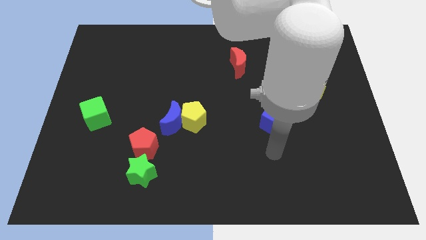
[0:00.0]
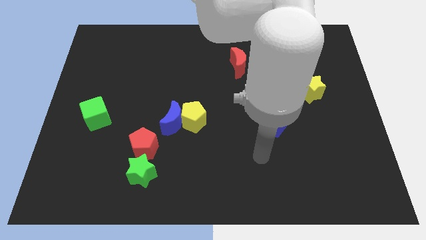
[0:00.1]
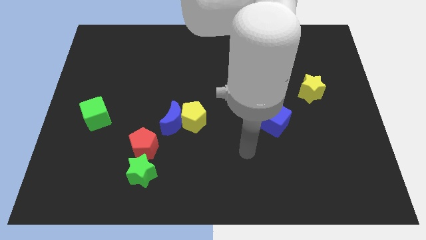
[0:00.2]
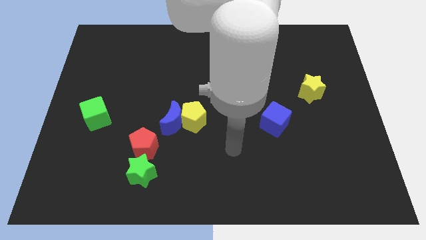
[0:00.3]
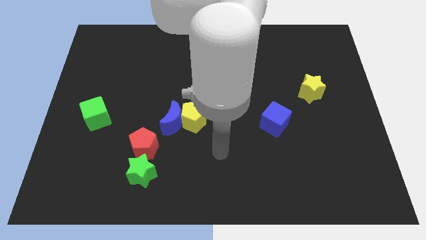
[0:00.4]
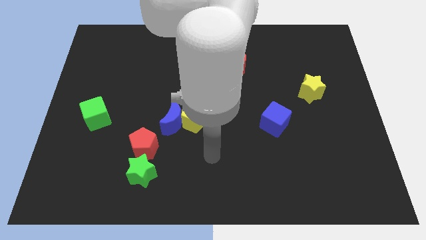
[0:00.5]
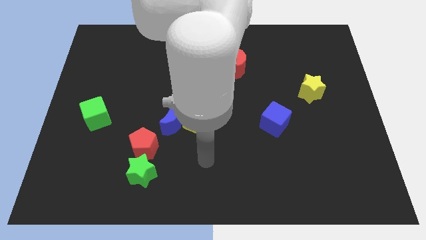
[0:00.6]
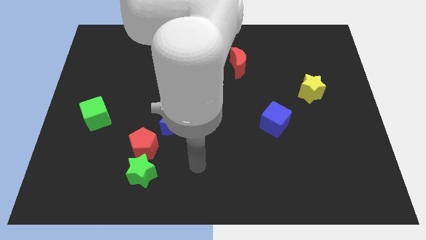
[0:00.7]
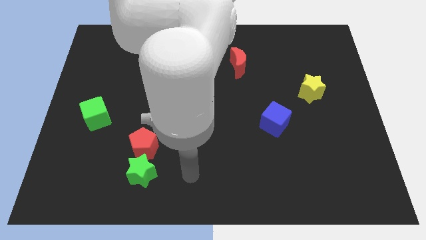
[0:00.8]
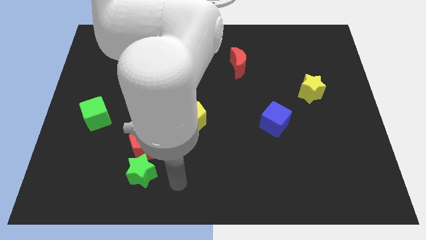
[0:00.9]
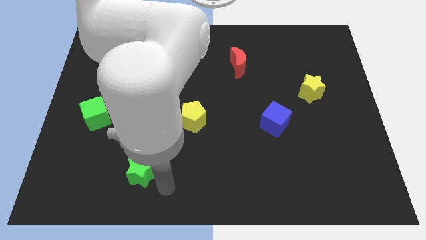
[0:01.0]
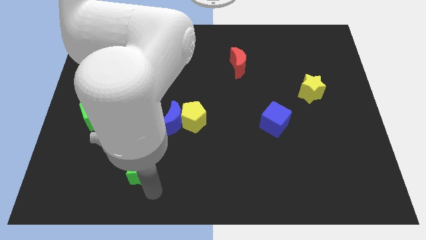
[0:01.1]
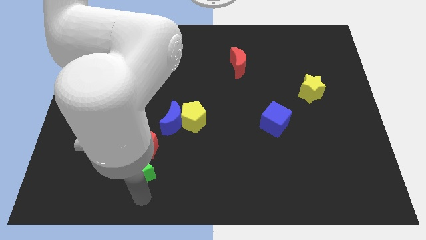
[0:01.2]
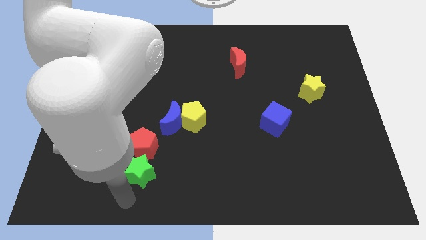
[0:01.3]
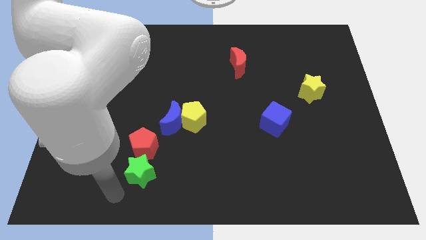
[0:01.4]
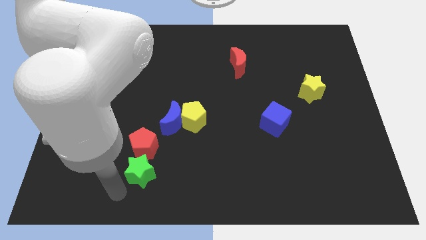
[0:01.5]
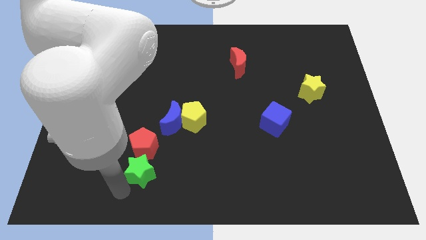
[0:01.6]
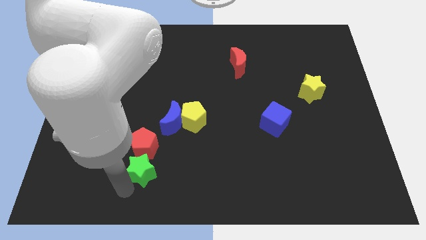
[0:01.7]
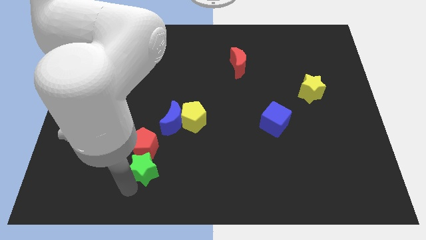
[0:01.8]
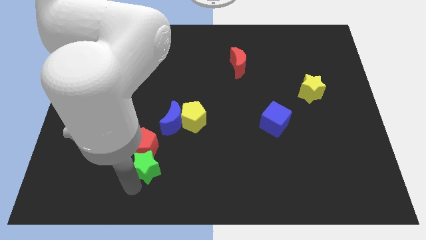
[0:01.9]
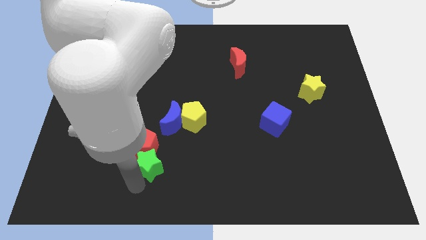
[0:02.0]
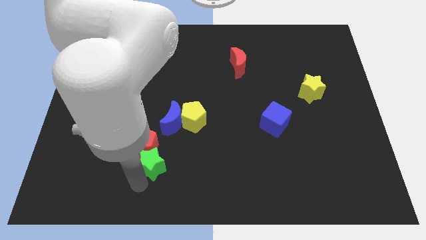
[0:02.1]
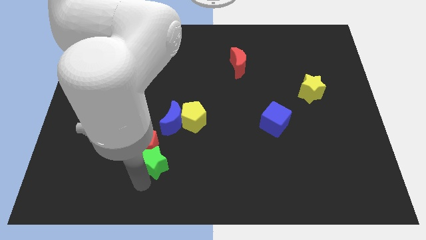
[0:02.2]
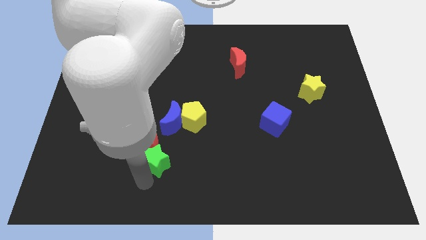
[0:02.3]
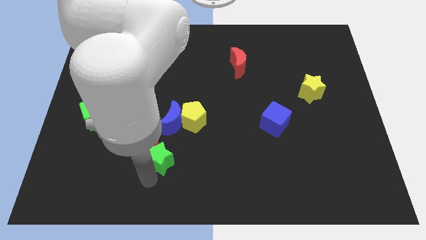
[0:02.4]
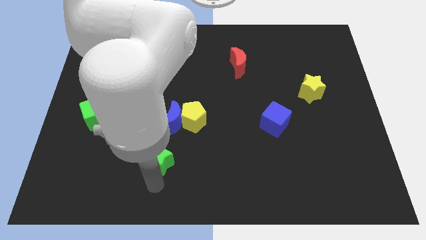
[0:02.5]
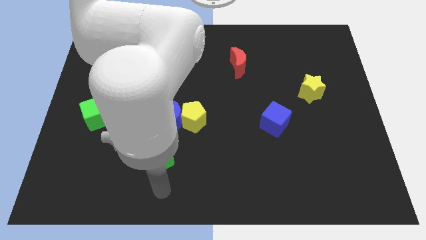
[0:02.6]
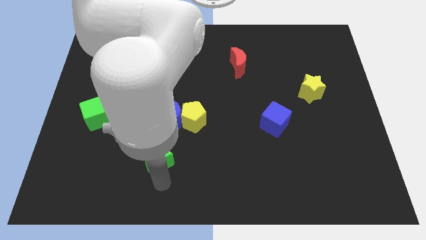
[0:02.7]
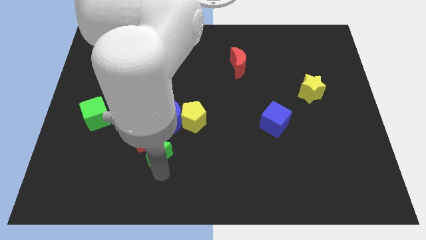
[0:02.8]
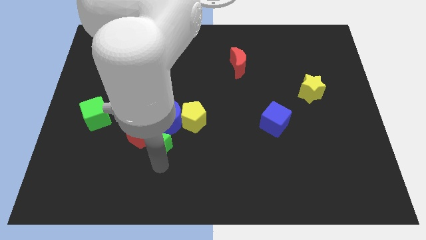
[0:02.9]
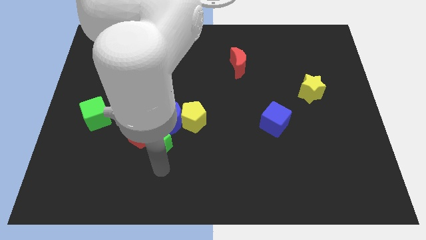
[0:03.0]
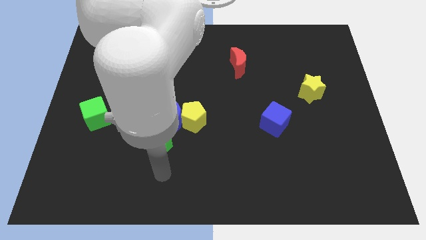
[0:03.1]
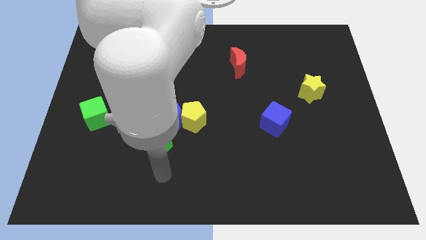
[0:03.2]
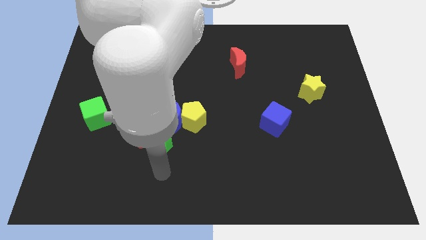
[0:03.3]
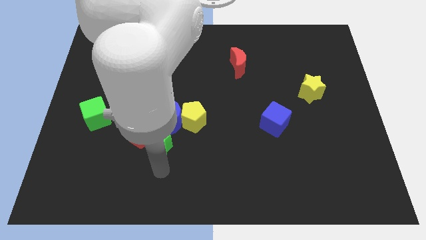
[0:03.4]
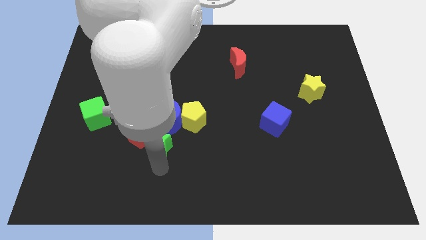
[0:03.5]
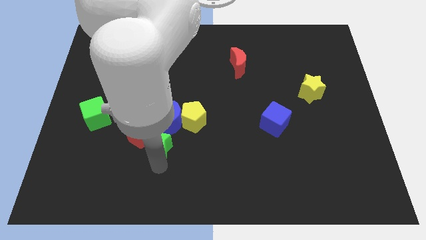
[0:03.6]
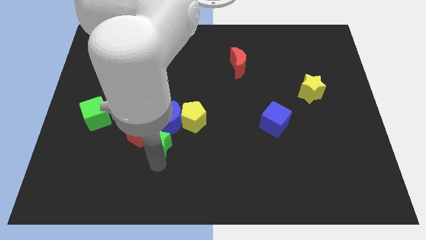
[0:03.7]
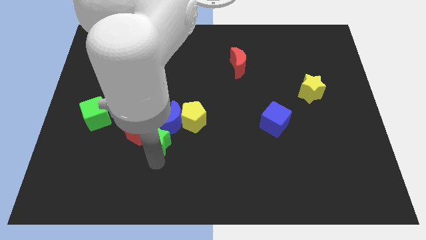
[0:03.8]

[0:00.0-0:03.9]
slightly slide the green star up

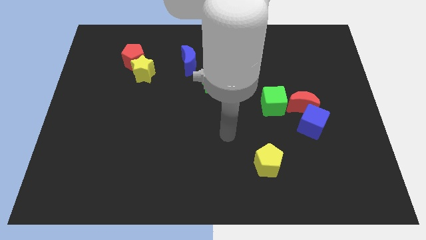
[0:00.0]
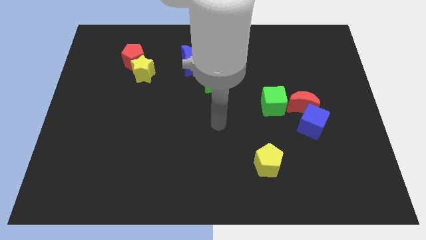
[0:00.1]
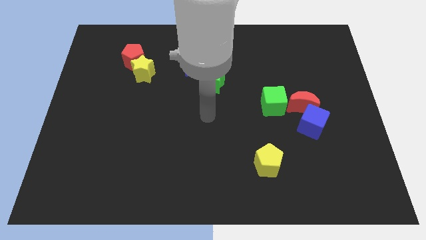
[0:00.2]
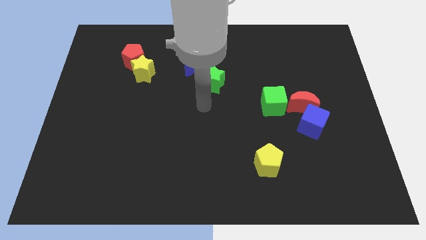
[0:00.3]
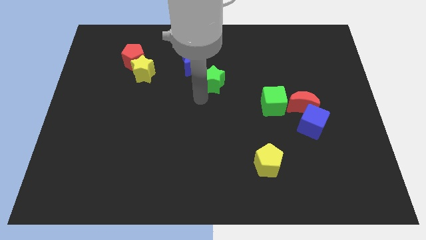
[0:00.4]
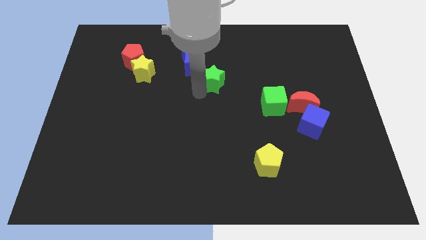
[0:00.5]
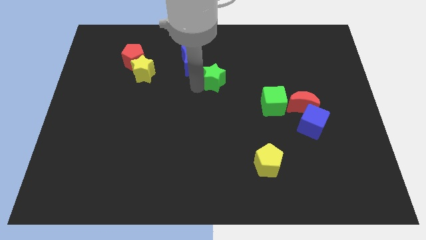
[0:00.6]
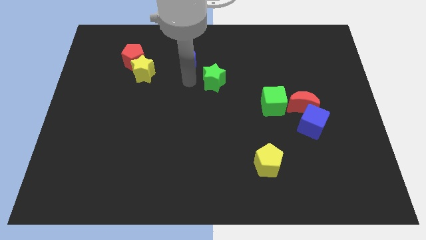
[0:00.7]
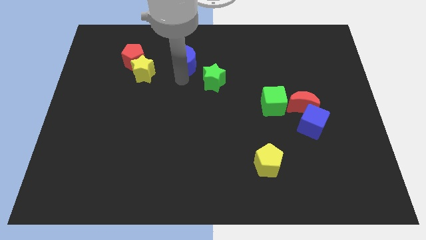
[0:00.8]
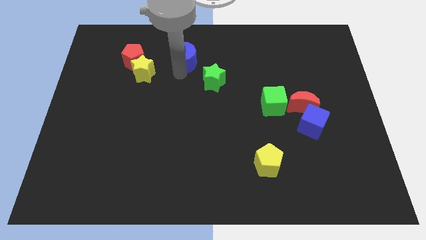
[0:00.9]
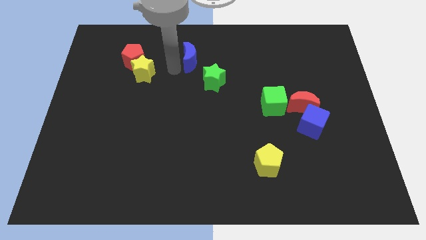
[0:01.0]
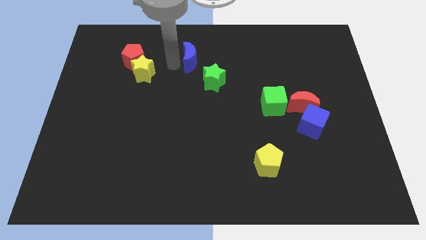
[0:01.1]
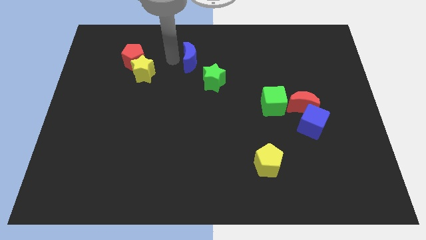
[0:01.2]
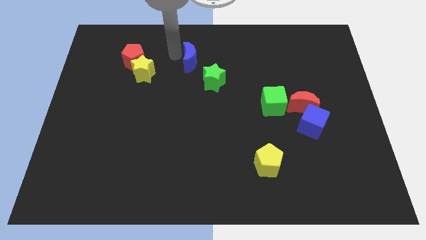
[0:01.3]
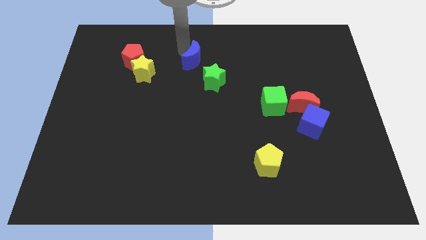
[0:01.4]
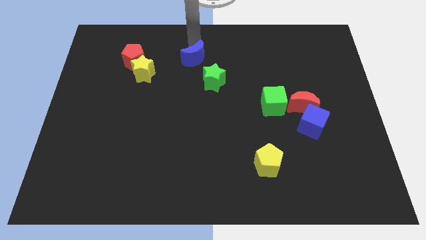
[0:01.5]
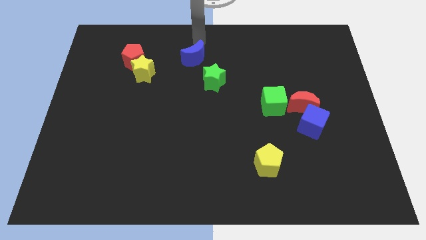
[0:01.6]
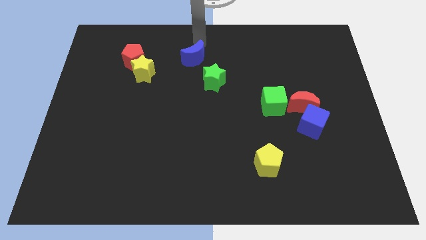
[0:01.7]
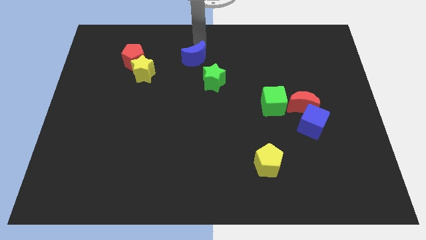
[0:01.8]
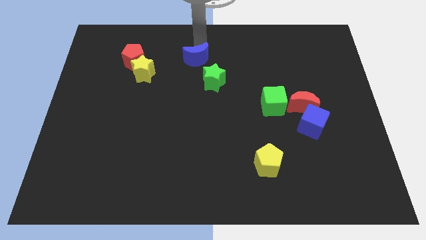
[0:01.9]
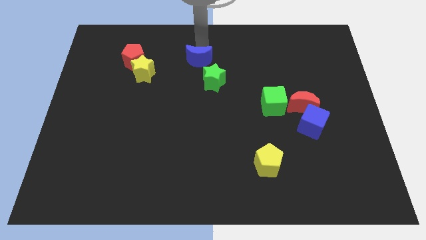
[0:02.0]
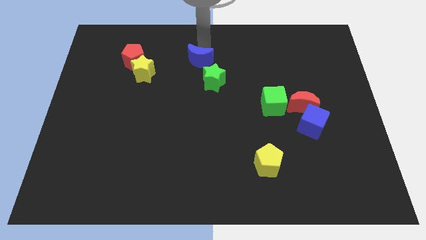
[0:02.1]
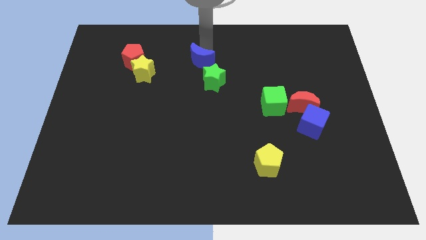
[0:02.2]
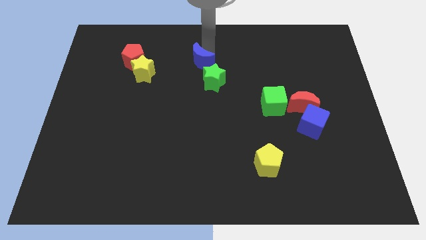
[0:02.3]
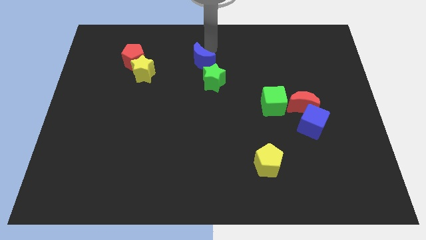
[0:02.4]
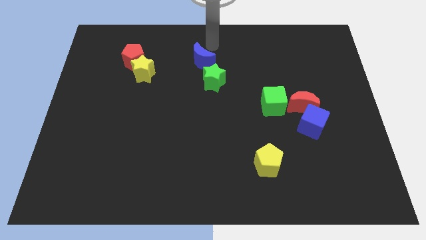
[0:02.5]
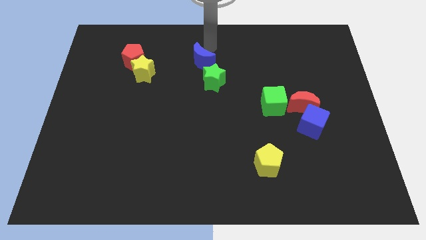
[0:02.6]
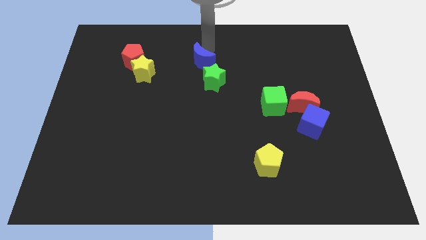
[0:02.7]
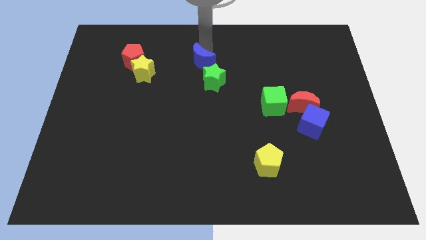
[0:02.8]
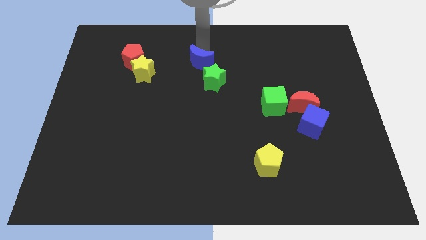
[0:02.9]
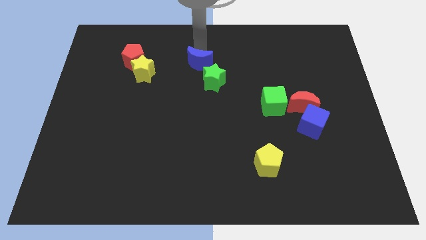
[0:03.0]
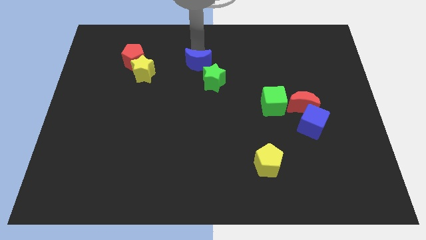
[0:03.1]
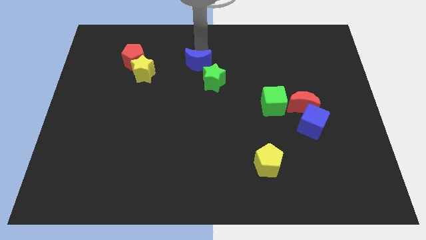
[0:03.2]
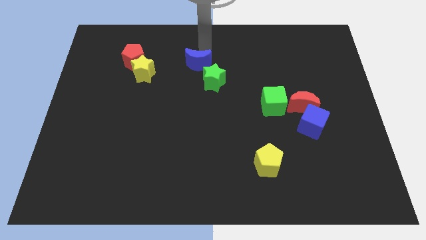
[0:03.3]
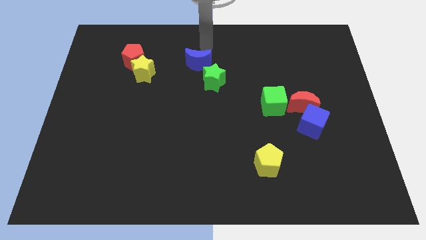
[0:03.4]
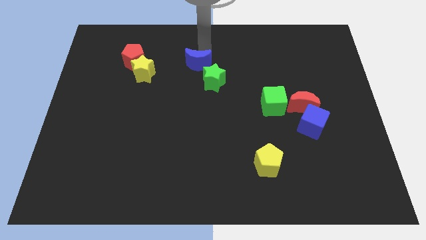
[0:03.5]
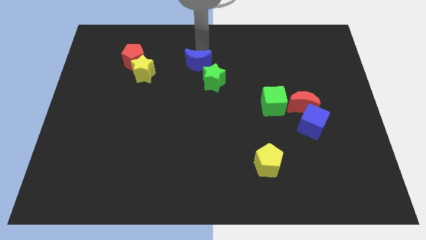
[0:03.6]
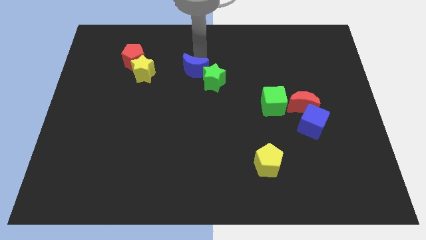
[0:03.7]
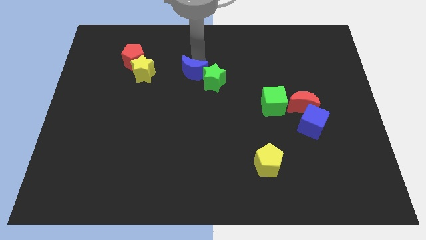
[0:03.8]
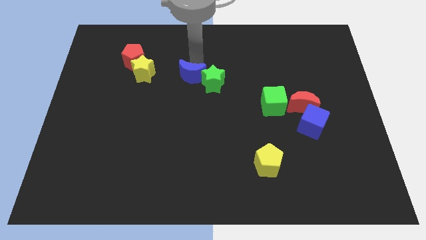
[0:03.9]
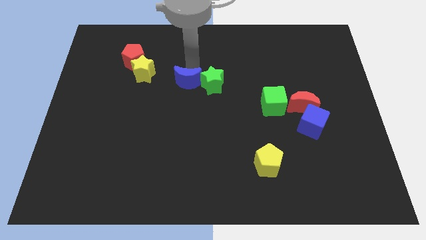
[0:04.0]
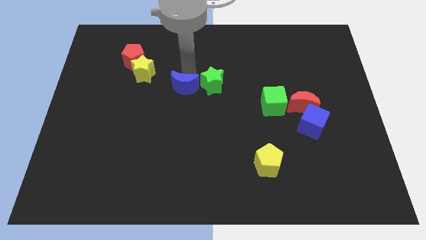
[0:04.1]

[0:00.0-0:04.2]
slide the blue moon a little downwards
